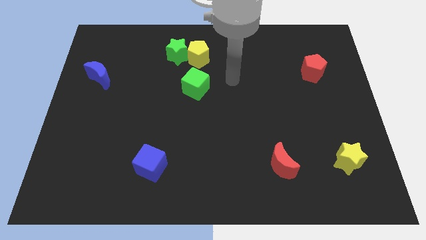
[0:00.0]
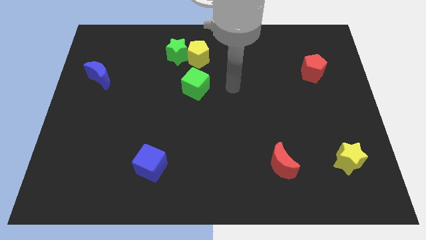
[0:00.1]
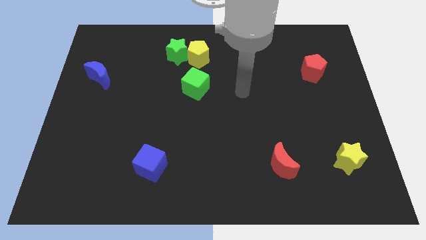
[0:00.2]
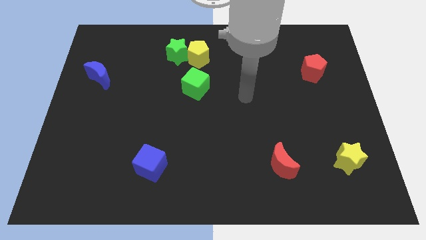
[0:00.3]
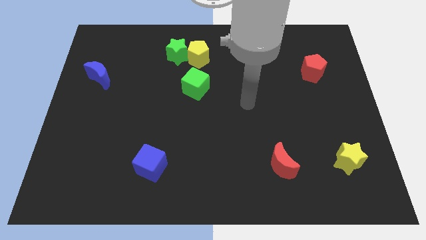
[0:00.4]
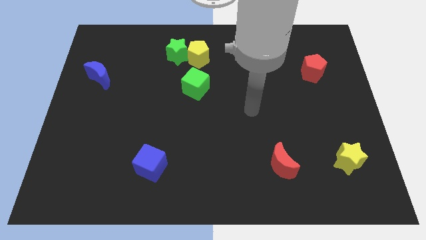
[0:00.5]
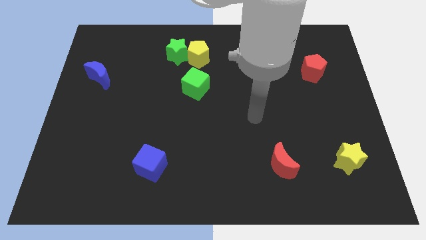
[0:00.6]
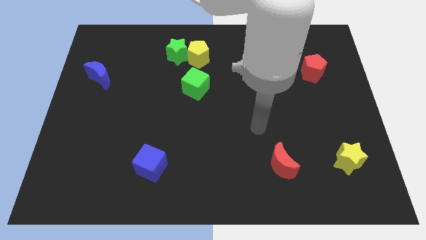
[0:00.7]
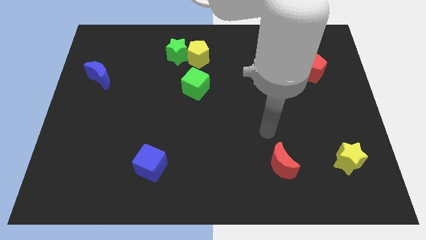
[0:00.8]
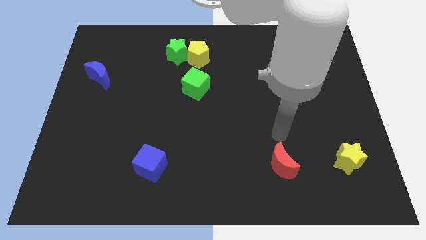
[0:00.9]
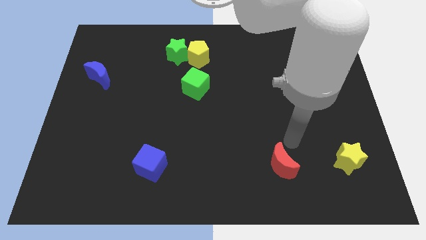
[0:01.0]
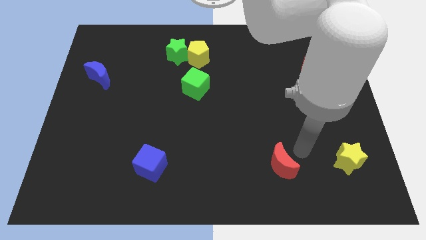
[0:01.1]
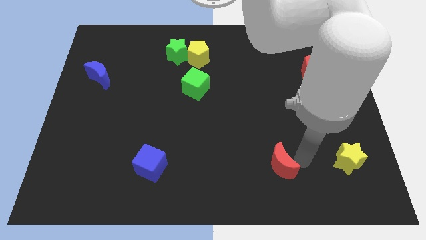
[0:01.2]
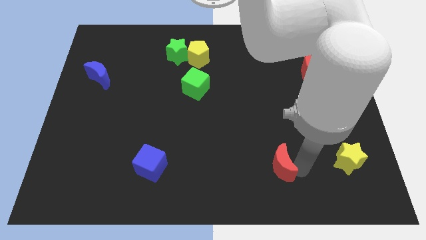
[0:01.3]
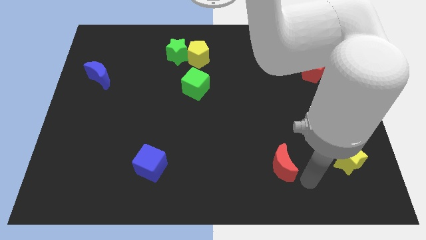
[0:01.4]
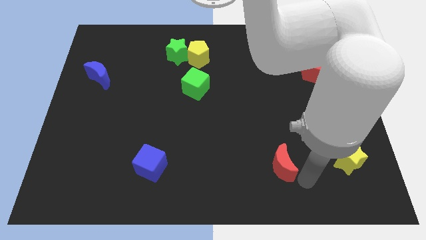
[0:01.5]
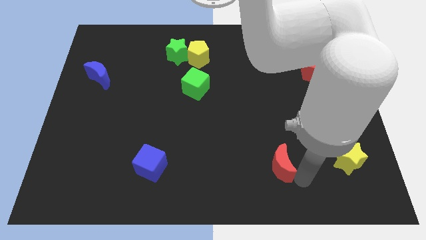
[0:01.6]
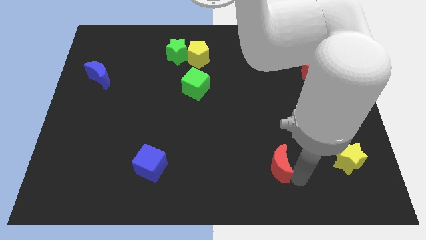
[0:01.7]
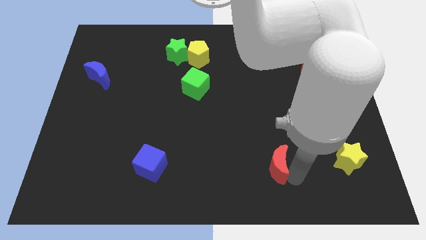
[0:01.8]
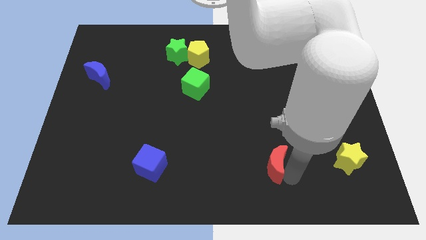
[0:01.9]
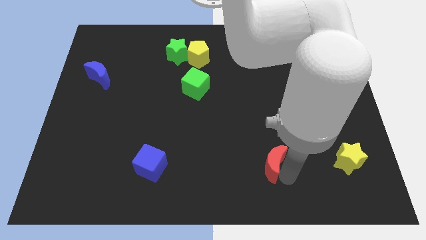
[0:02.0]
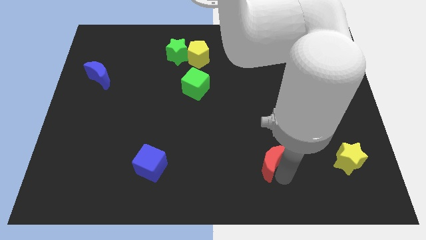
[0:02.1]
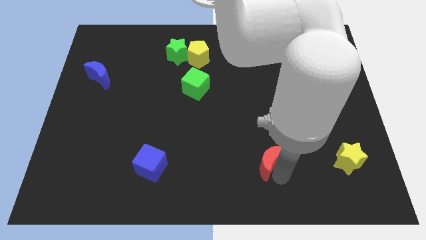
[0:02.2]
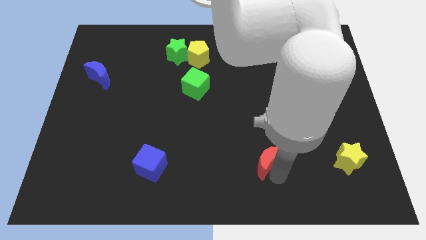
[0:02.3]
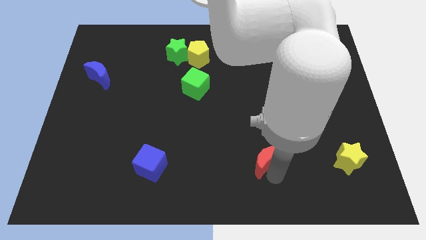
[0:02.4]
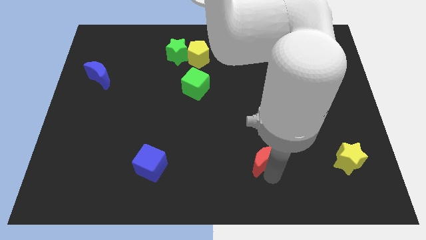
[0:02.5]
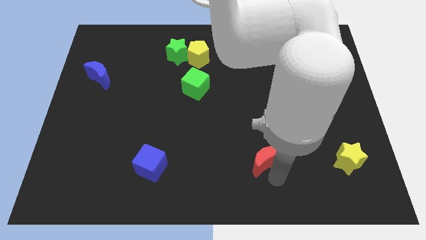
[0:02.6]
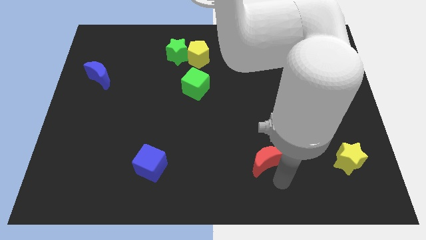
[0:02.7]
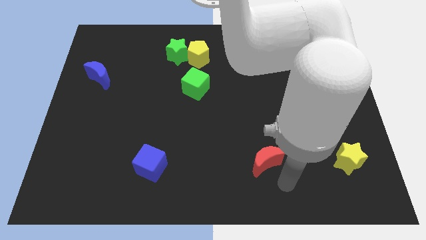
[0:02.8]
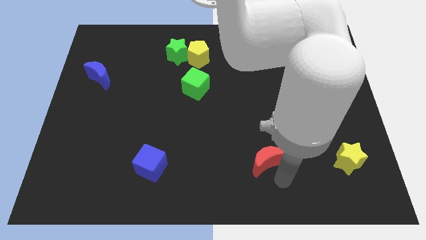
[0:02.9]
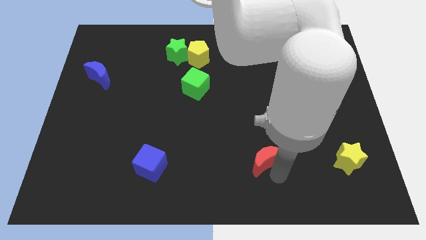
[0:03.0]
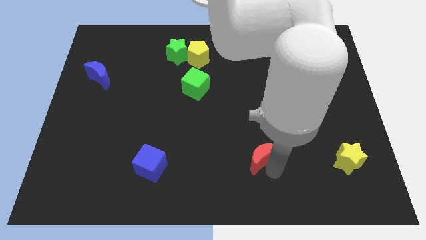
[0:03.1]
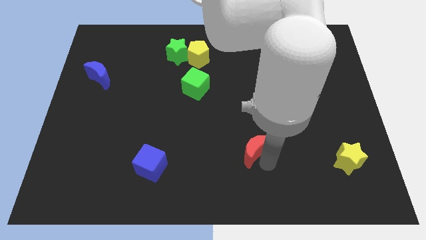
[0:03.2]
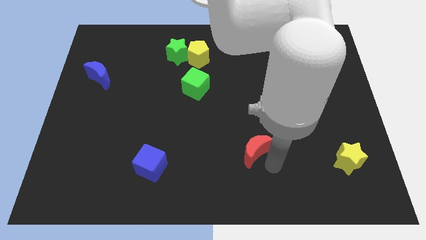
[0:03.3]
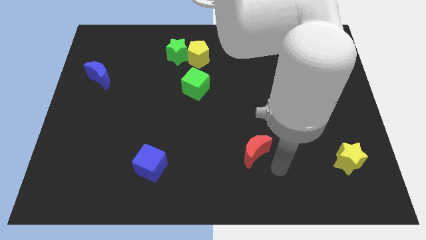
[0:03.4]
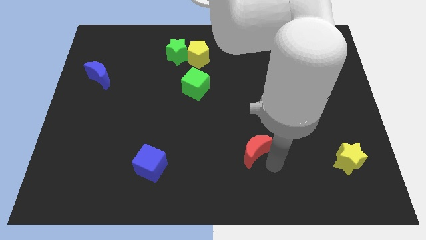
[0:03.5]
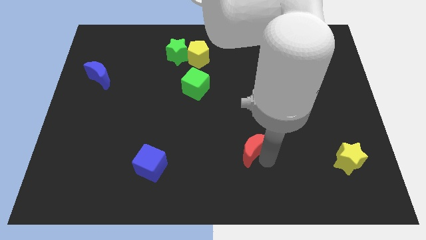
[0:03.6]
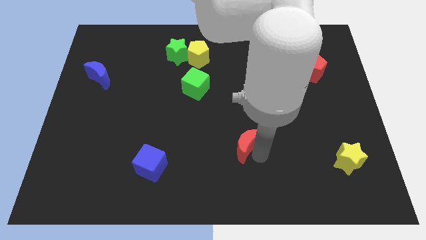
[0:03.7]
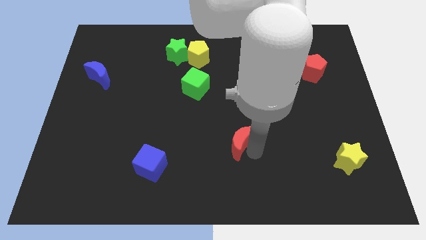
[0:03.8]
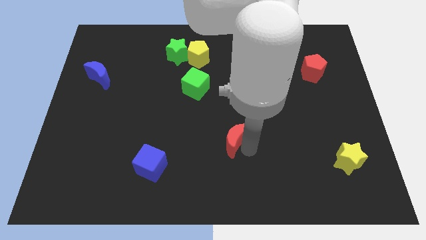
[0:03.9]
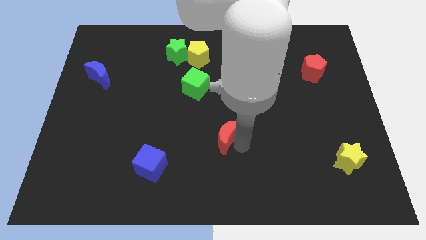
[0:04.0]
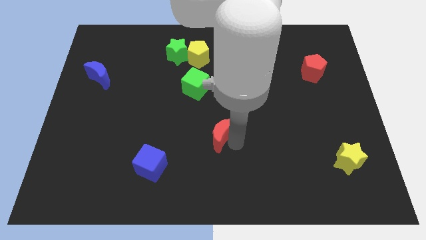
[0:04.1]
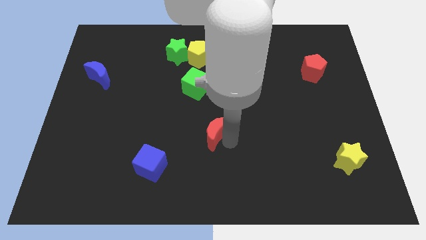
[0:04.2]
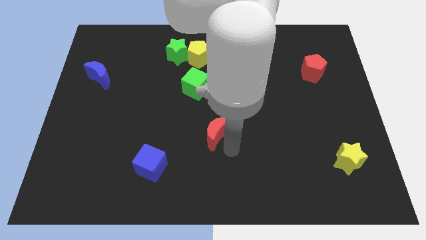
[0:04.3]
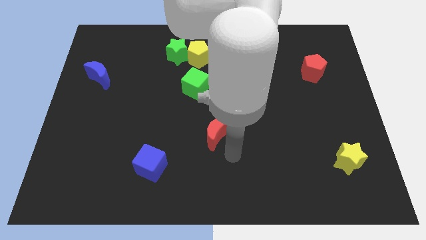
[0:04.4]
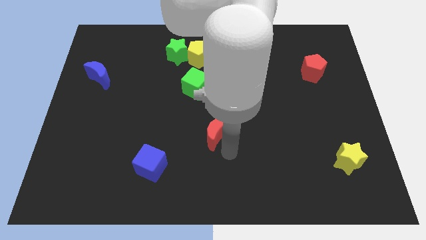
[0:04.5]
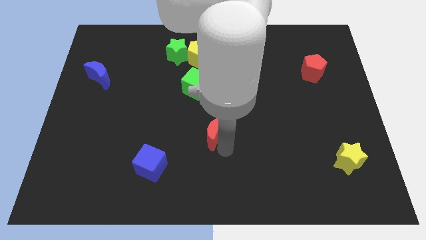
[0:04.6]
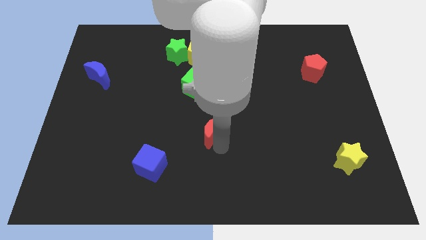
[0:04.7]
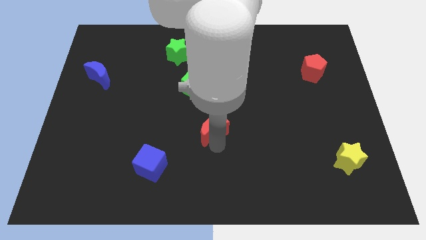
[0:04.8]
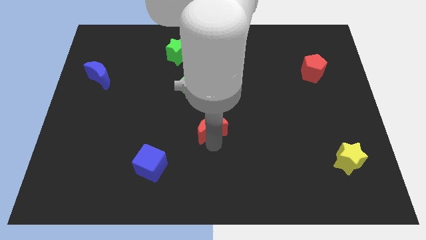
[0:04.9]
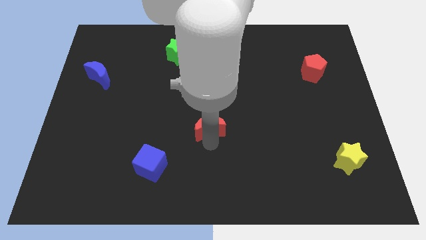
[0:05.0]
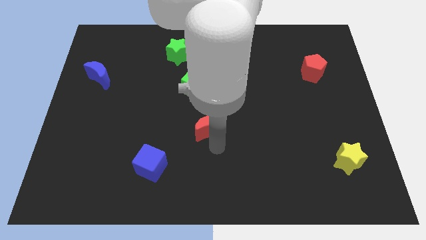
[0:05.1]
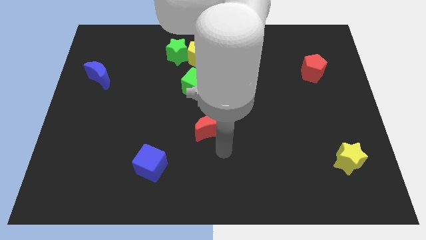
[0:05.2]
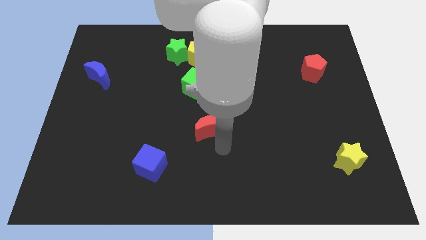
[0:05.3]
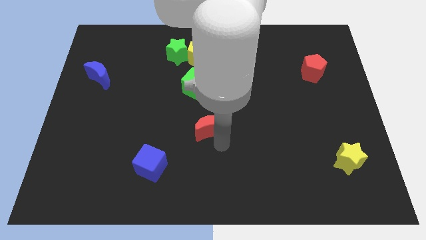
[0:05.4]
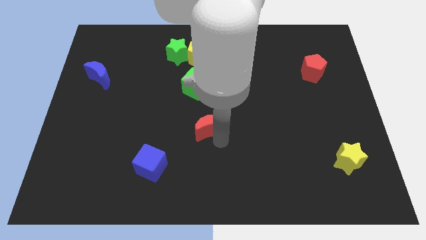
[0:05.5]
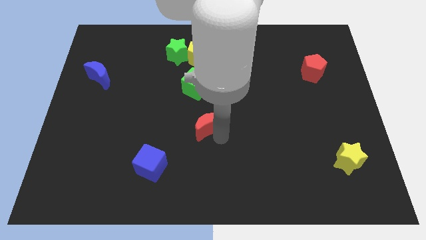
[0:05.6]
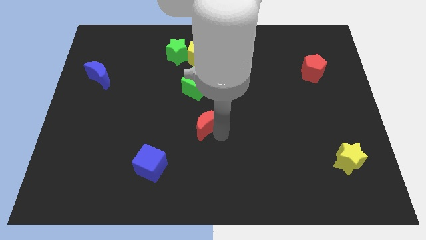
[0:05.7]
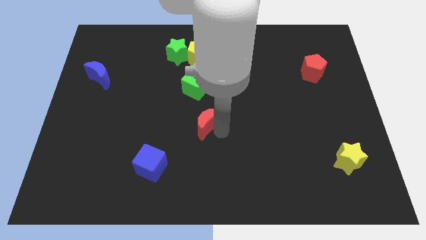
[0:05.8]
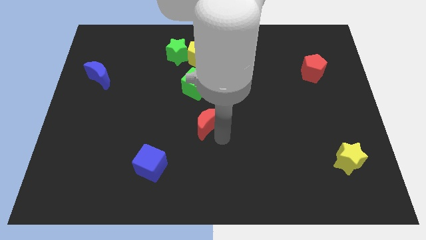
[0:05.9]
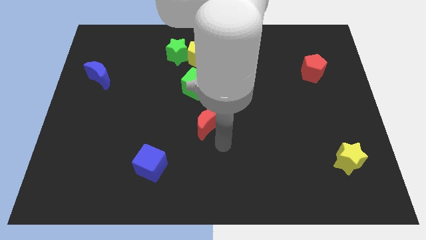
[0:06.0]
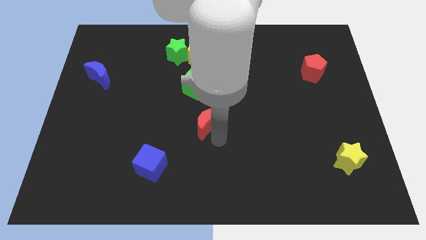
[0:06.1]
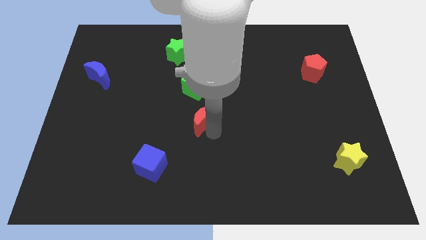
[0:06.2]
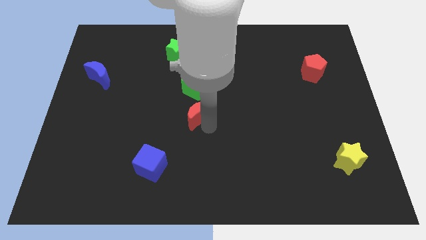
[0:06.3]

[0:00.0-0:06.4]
move the red moon up and to the left diagonally

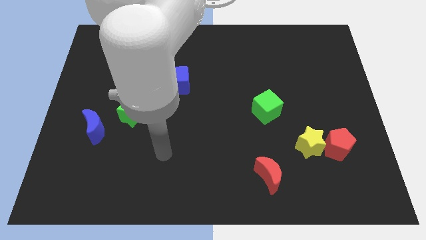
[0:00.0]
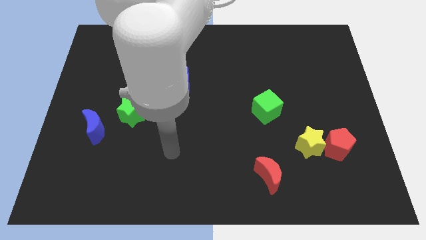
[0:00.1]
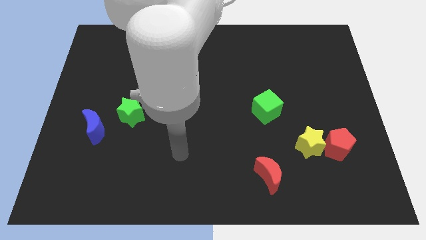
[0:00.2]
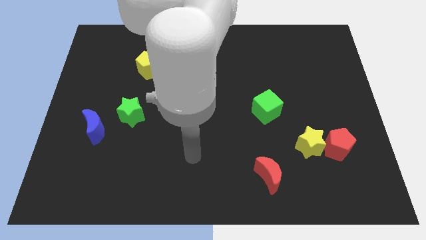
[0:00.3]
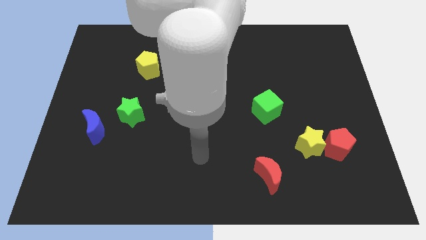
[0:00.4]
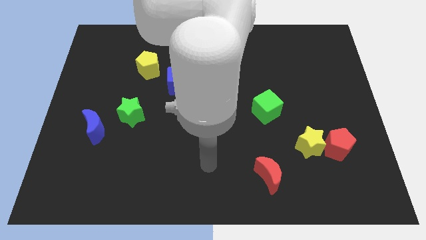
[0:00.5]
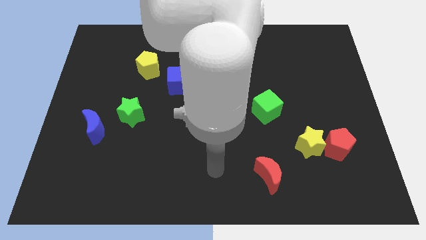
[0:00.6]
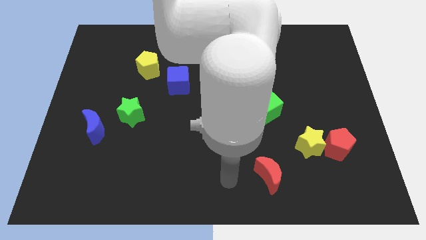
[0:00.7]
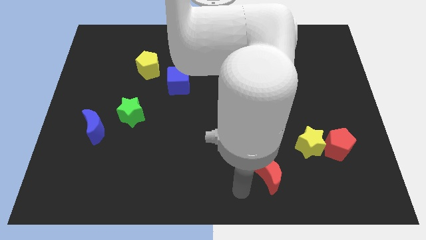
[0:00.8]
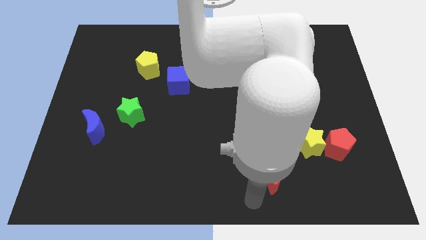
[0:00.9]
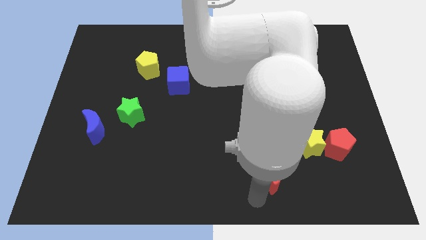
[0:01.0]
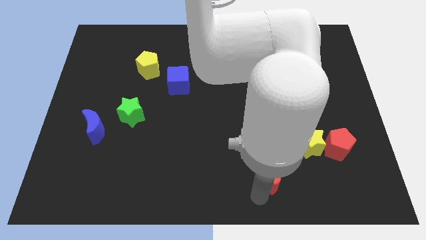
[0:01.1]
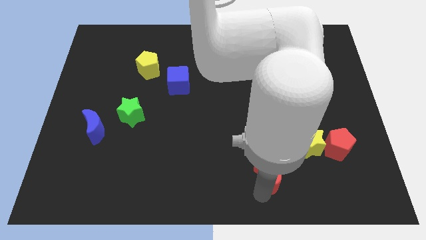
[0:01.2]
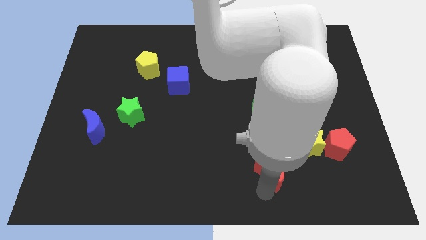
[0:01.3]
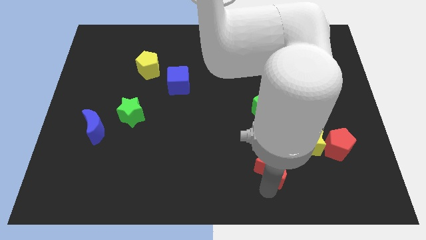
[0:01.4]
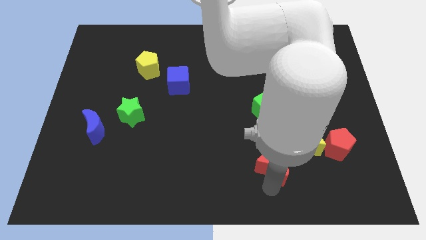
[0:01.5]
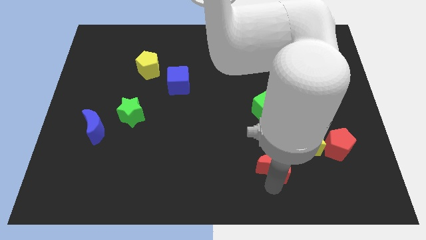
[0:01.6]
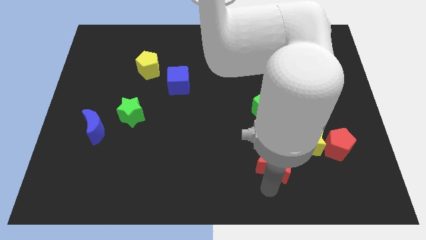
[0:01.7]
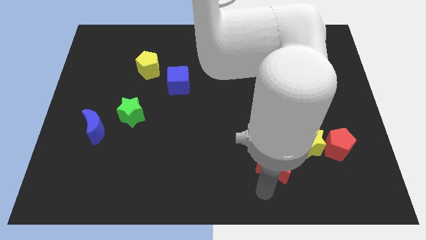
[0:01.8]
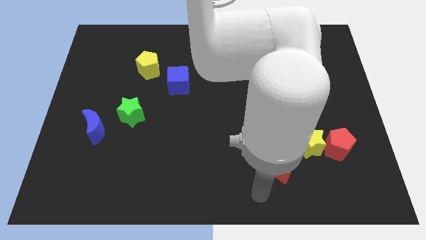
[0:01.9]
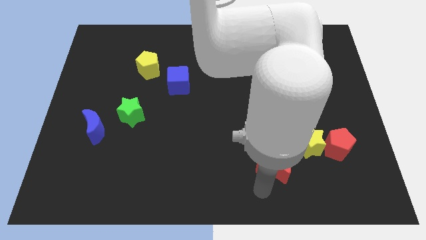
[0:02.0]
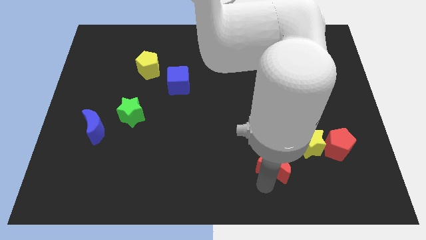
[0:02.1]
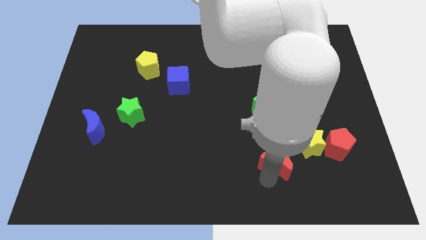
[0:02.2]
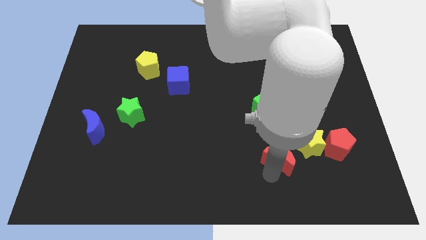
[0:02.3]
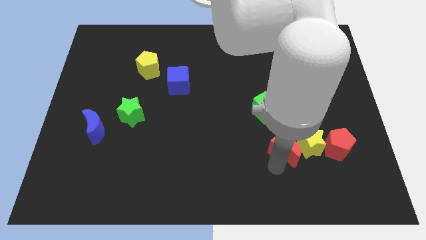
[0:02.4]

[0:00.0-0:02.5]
move the red moon upwards and right diagonally a little bit
